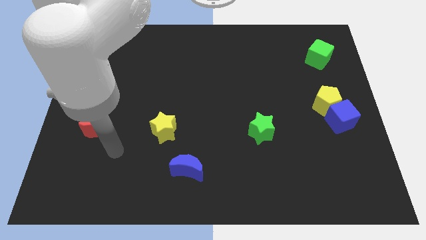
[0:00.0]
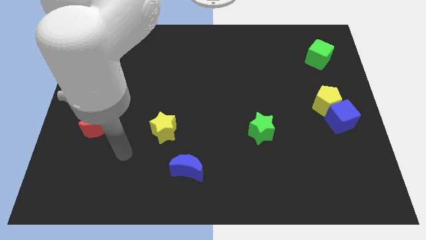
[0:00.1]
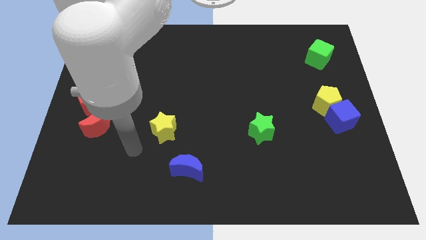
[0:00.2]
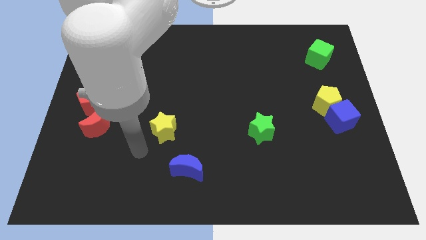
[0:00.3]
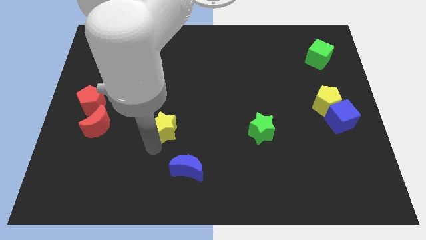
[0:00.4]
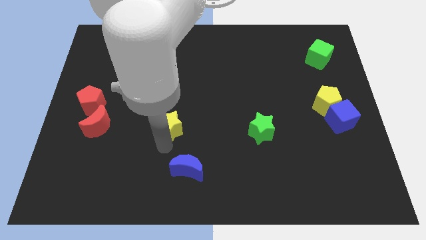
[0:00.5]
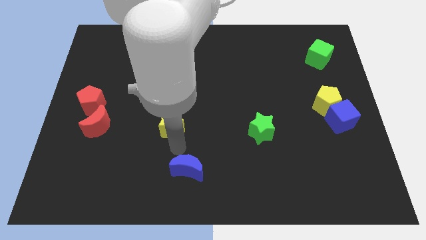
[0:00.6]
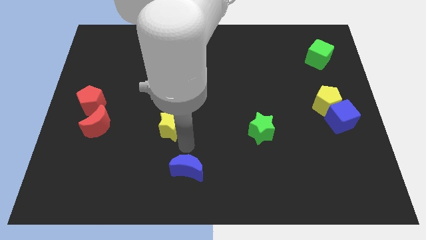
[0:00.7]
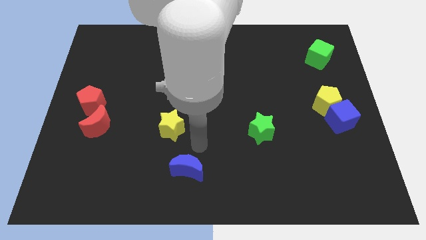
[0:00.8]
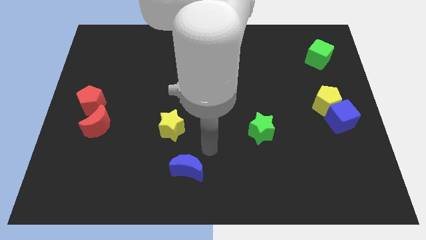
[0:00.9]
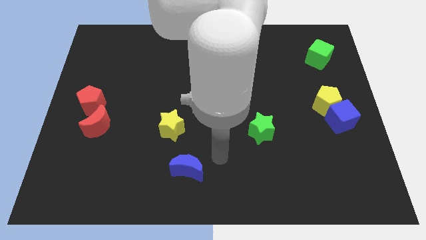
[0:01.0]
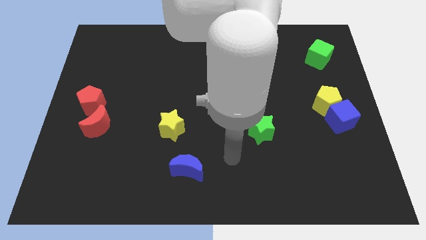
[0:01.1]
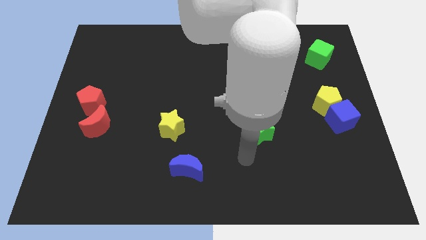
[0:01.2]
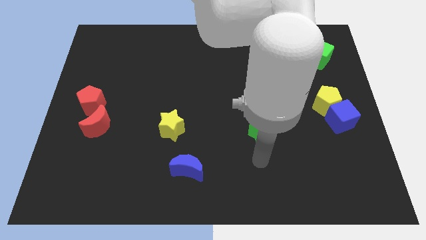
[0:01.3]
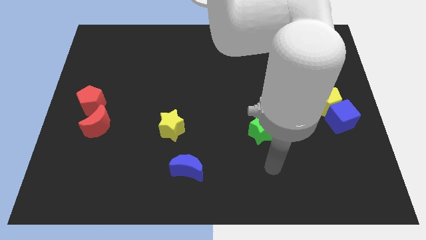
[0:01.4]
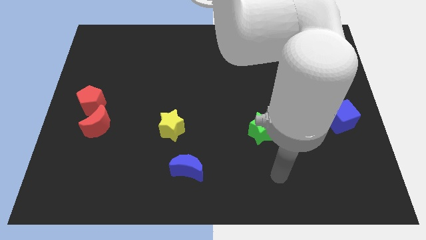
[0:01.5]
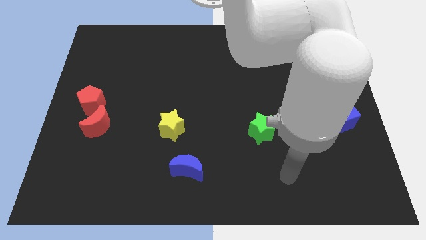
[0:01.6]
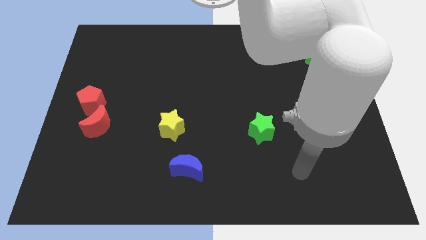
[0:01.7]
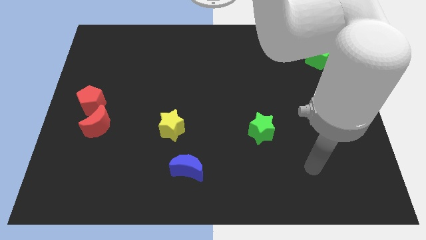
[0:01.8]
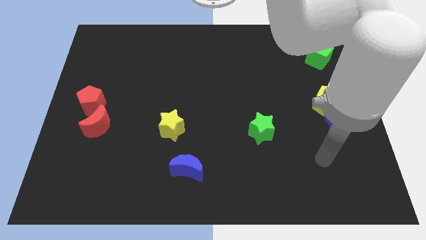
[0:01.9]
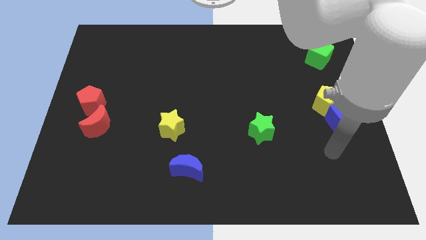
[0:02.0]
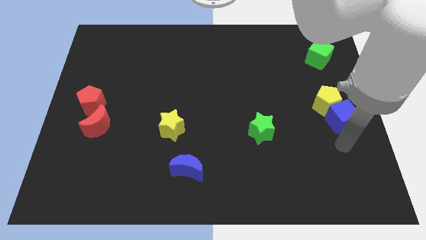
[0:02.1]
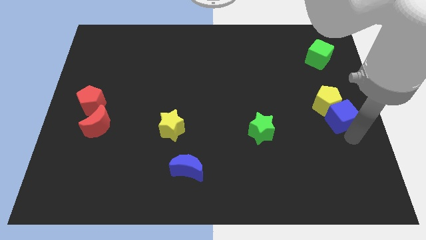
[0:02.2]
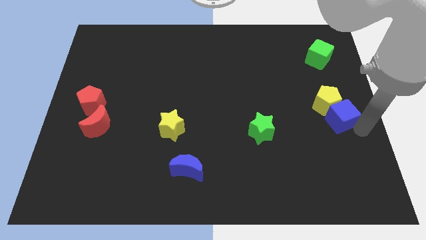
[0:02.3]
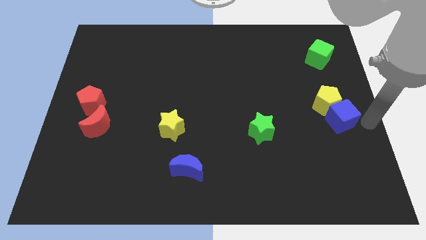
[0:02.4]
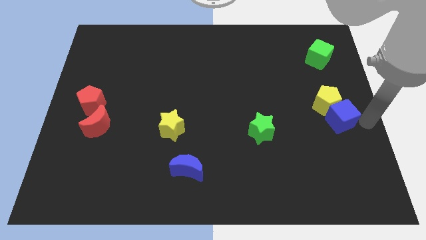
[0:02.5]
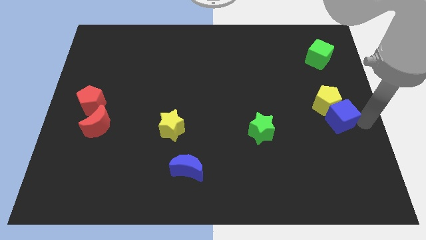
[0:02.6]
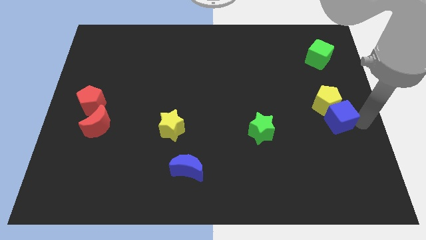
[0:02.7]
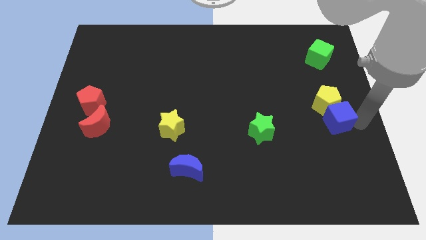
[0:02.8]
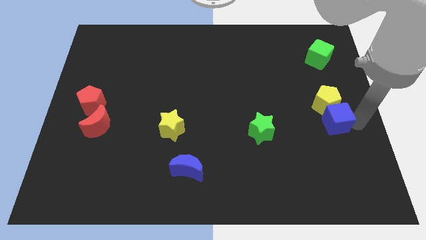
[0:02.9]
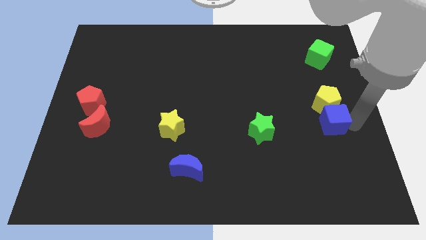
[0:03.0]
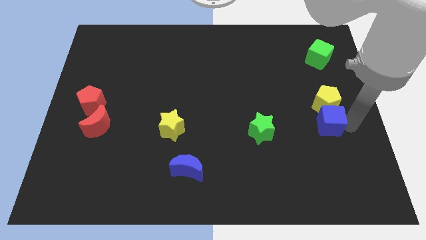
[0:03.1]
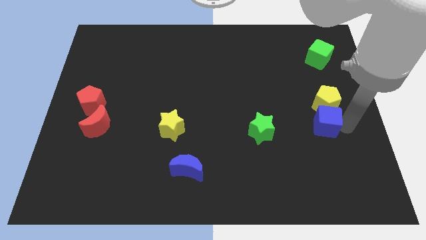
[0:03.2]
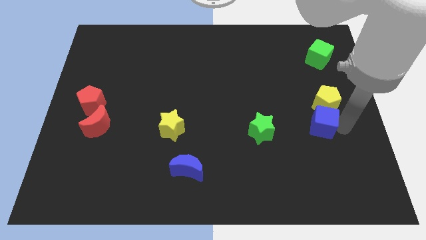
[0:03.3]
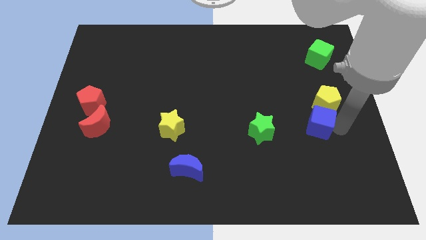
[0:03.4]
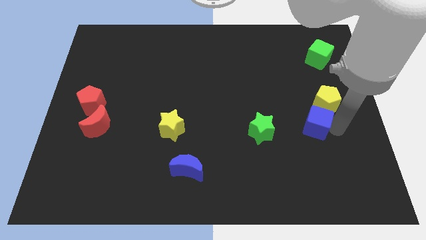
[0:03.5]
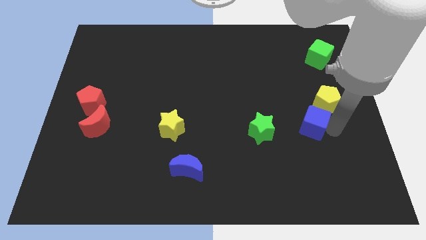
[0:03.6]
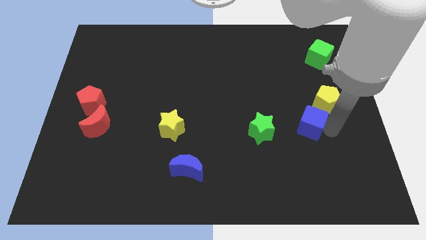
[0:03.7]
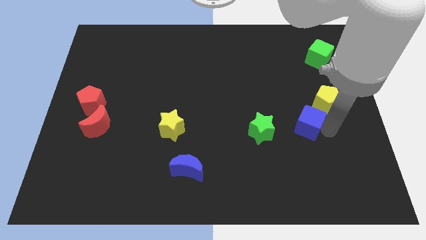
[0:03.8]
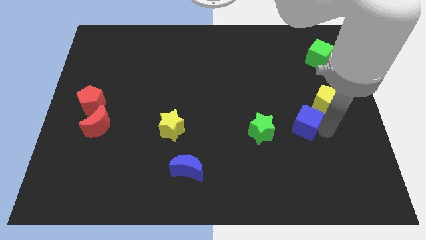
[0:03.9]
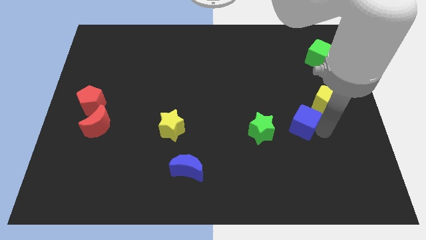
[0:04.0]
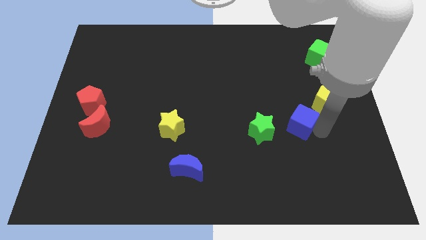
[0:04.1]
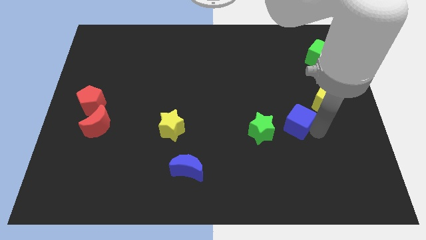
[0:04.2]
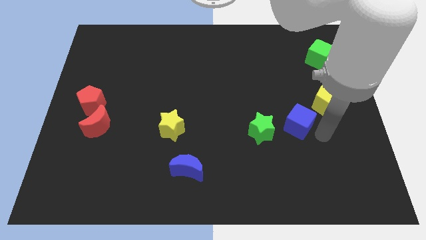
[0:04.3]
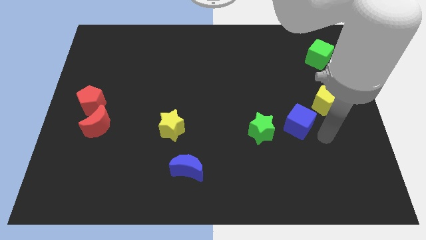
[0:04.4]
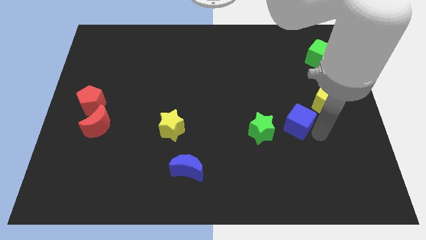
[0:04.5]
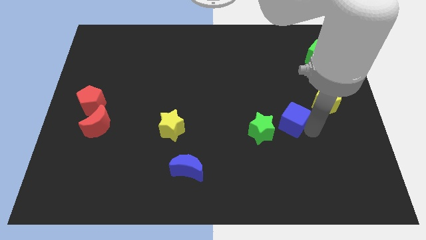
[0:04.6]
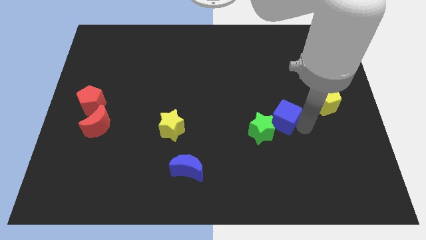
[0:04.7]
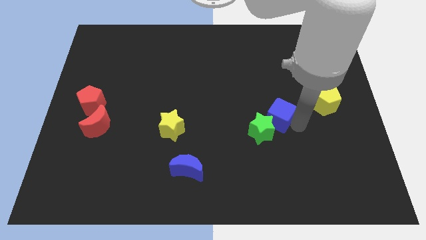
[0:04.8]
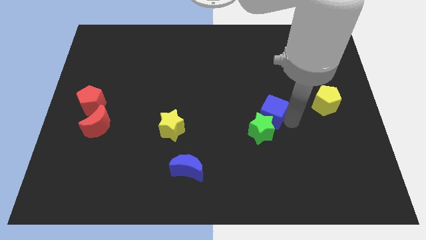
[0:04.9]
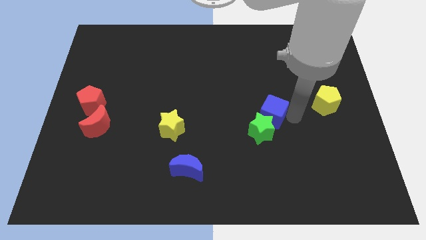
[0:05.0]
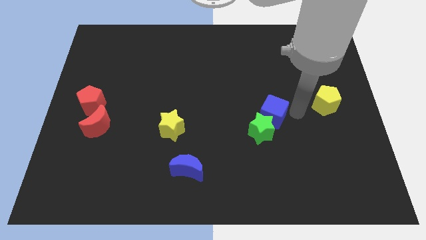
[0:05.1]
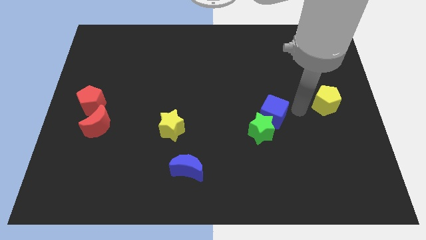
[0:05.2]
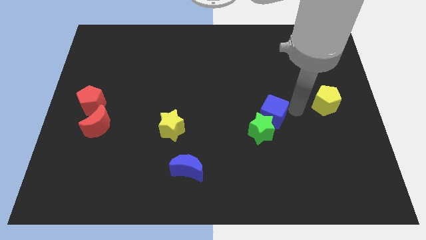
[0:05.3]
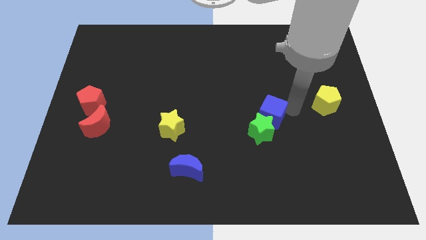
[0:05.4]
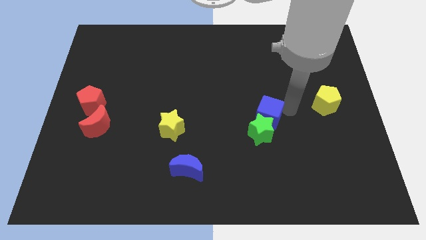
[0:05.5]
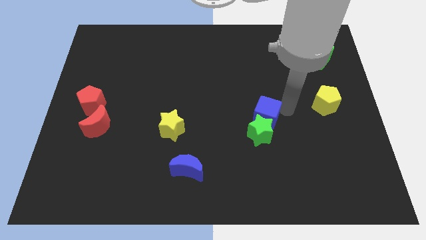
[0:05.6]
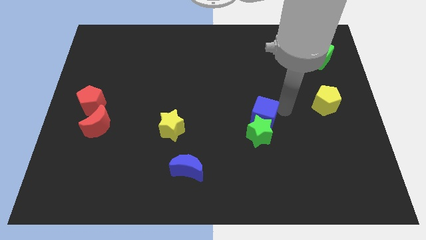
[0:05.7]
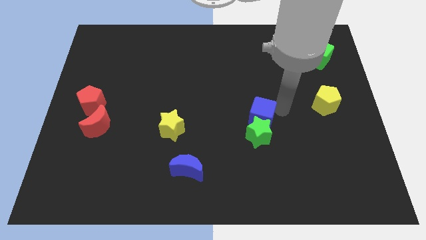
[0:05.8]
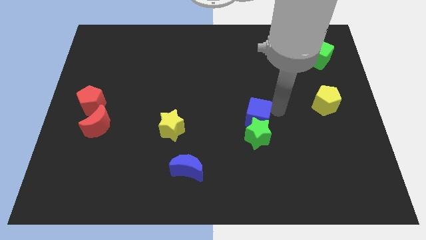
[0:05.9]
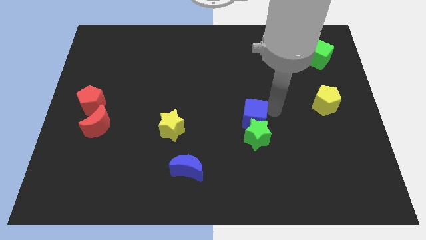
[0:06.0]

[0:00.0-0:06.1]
push the blue cube left

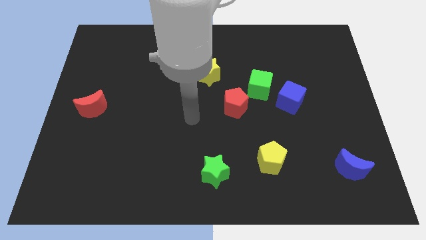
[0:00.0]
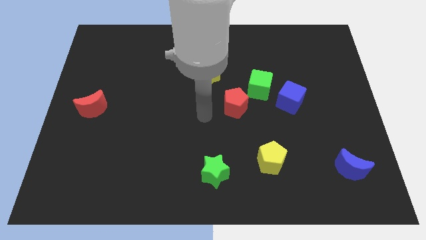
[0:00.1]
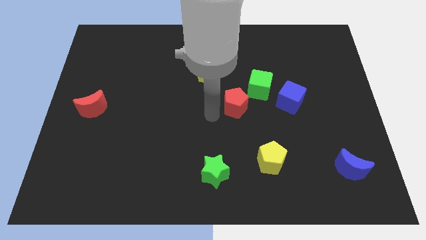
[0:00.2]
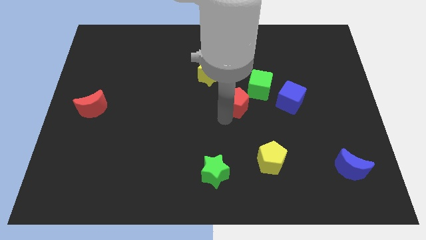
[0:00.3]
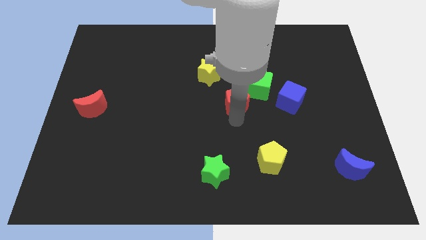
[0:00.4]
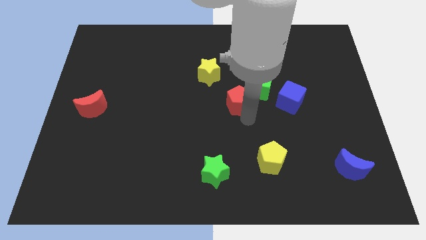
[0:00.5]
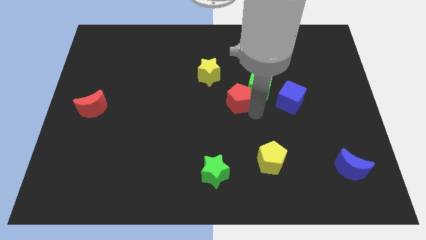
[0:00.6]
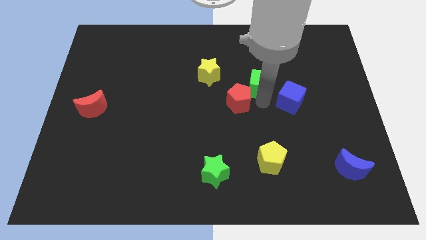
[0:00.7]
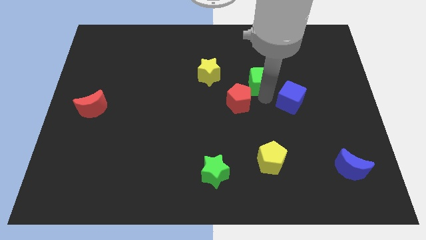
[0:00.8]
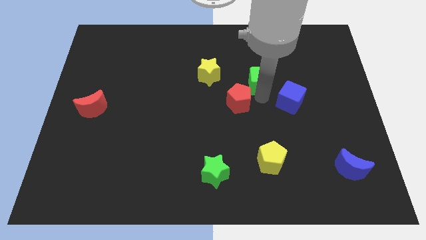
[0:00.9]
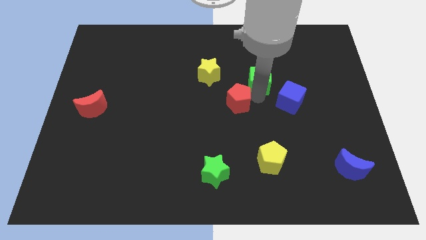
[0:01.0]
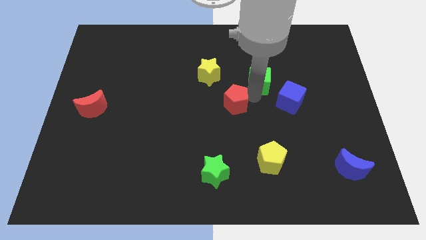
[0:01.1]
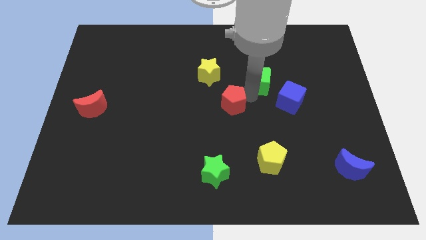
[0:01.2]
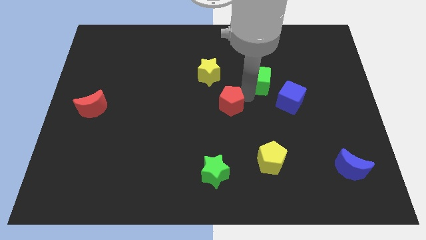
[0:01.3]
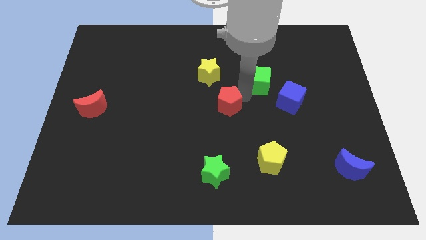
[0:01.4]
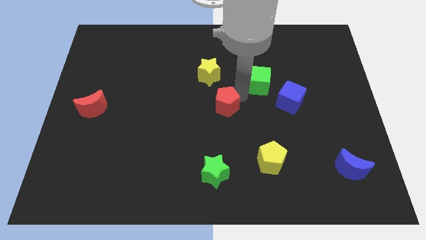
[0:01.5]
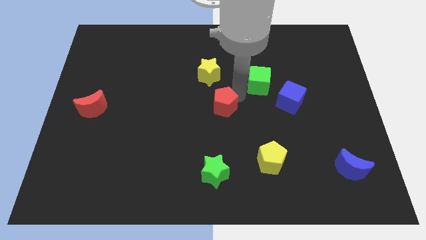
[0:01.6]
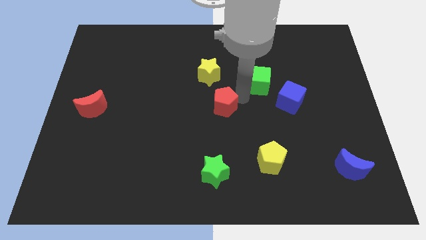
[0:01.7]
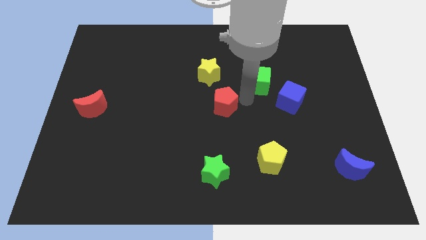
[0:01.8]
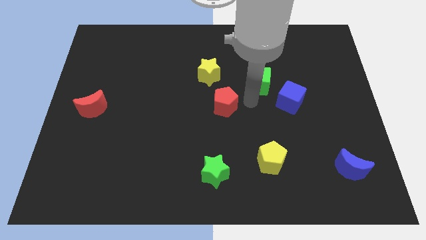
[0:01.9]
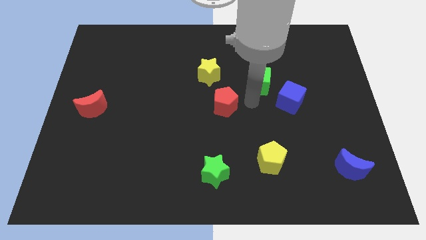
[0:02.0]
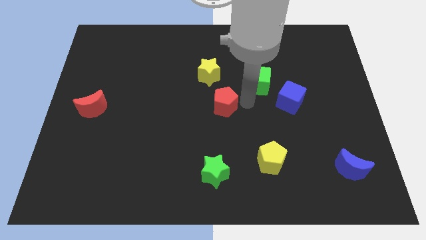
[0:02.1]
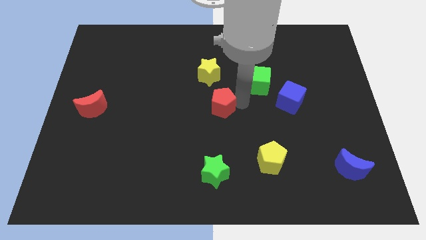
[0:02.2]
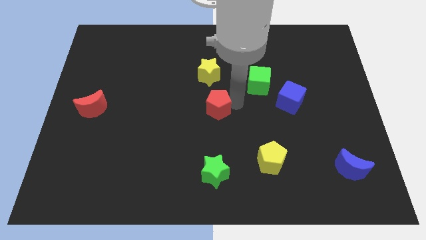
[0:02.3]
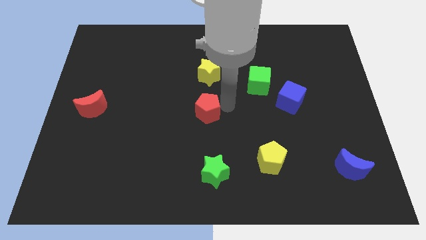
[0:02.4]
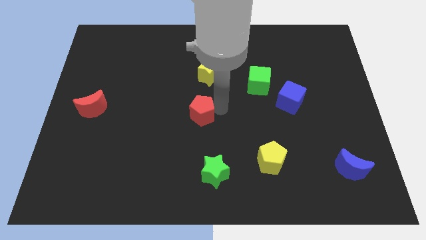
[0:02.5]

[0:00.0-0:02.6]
push the red pentagon to the left a little bit
